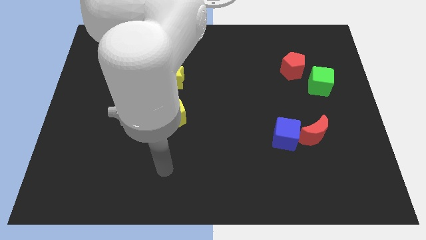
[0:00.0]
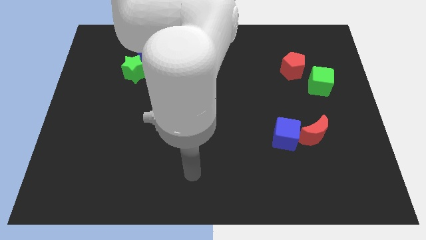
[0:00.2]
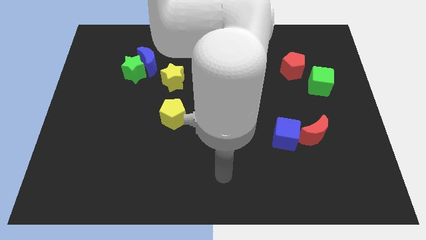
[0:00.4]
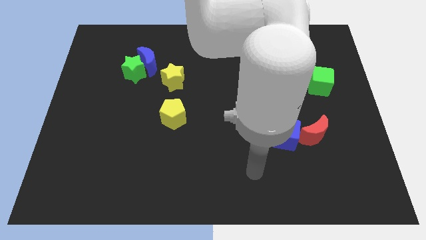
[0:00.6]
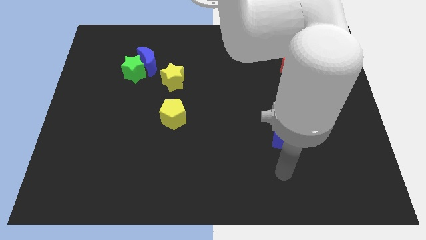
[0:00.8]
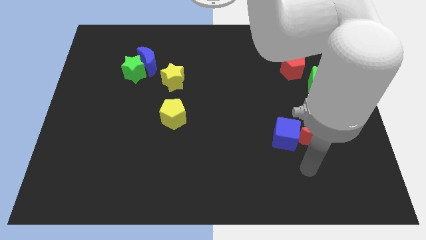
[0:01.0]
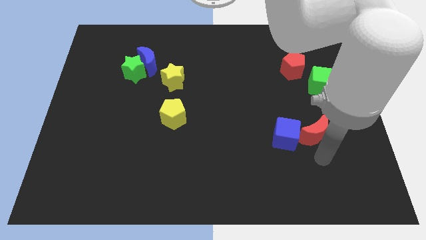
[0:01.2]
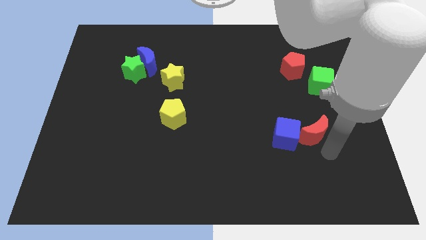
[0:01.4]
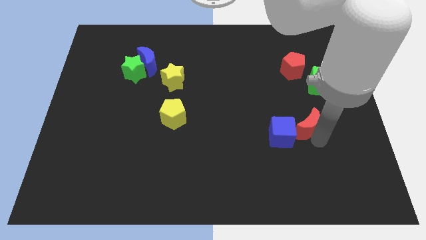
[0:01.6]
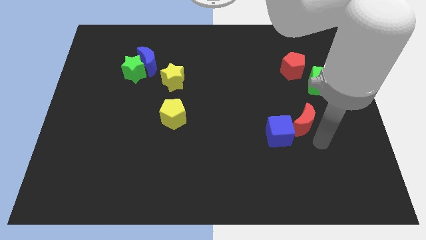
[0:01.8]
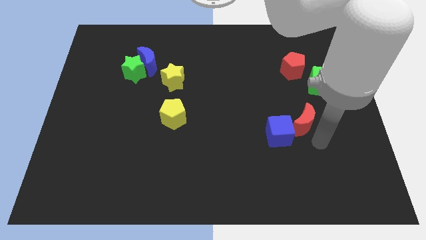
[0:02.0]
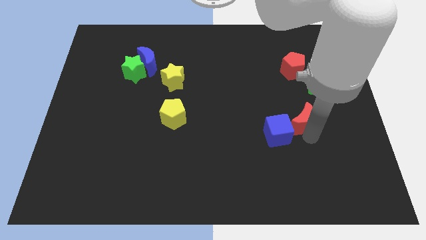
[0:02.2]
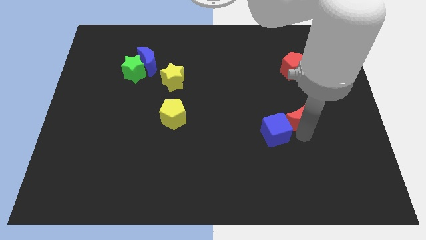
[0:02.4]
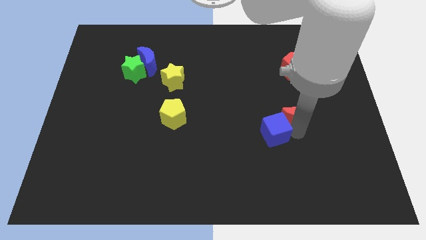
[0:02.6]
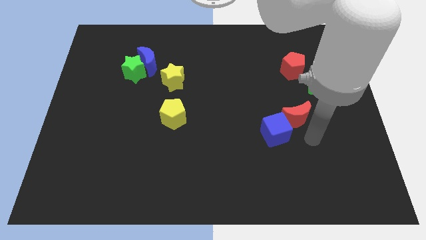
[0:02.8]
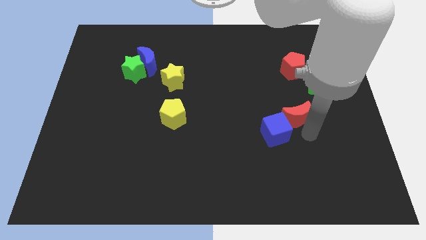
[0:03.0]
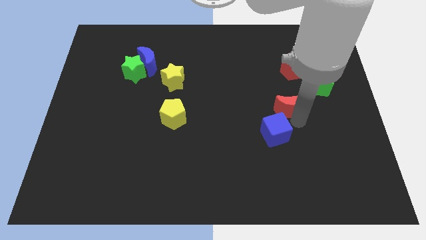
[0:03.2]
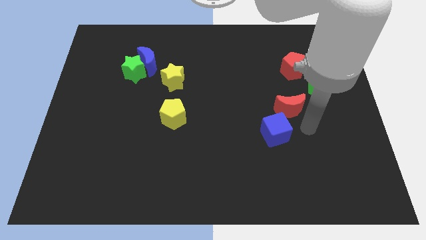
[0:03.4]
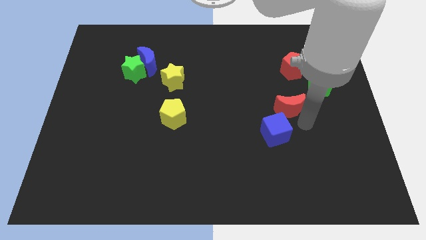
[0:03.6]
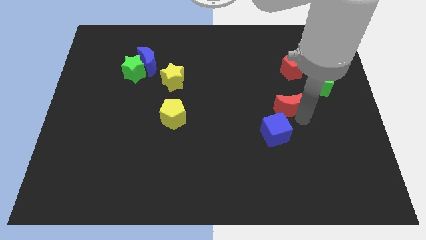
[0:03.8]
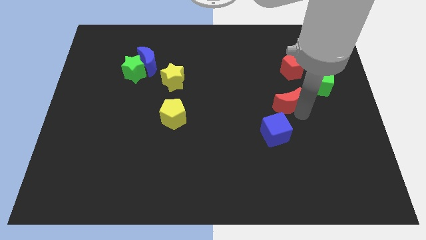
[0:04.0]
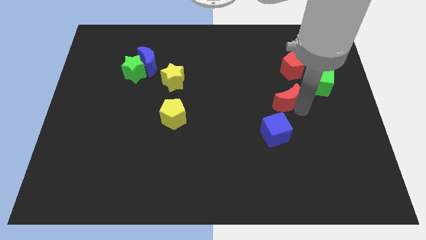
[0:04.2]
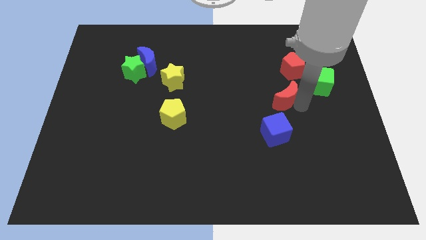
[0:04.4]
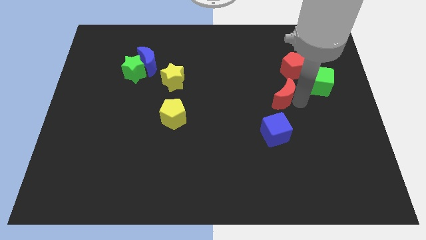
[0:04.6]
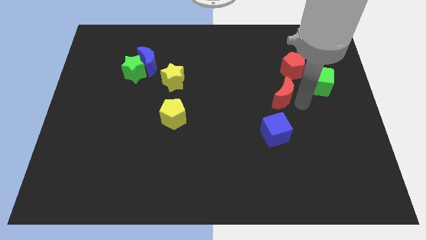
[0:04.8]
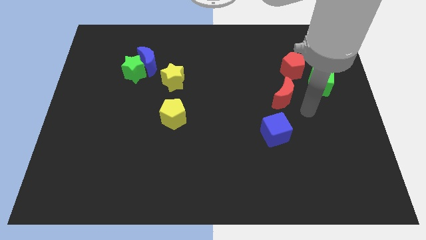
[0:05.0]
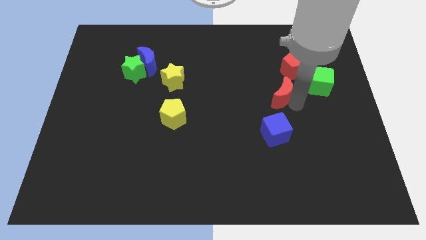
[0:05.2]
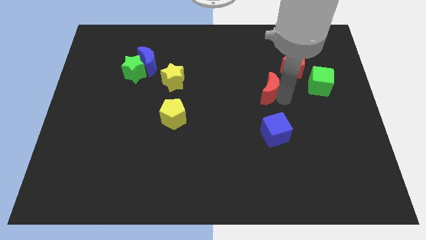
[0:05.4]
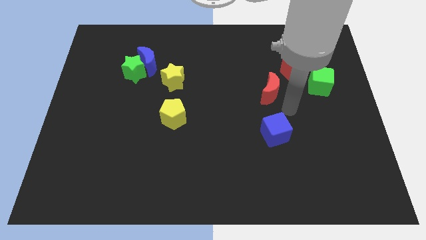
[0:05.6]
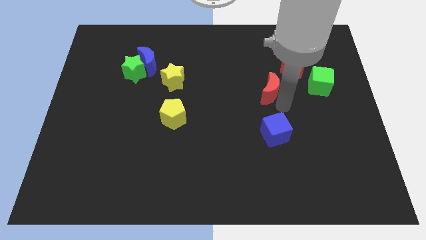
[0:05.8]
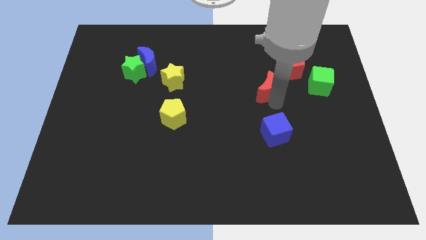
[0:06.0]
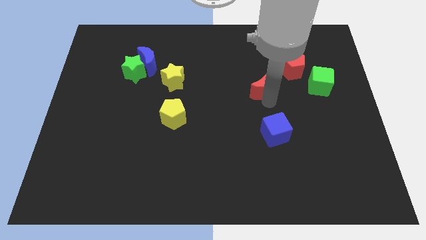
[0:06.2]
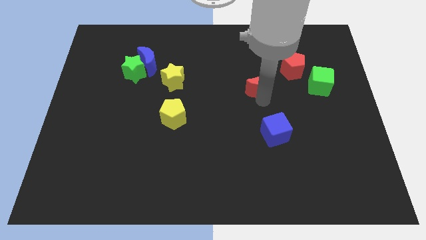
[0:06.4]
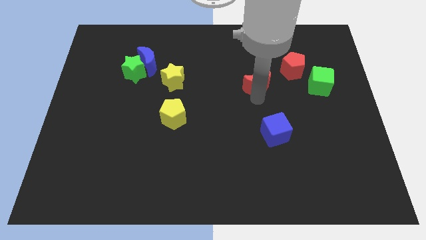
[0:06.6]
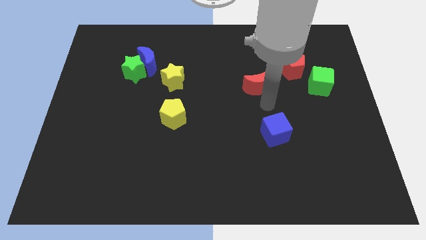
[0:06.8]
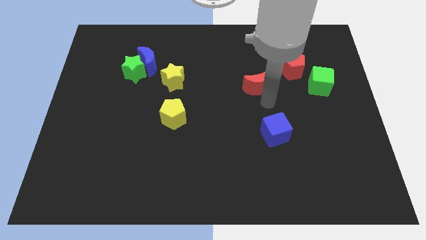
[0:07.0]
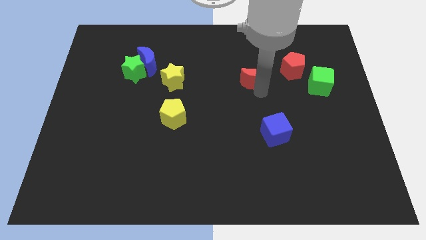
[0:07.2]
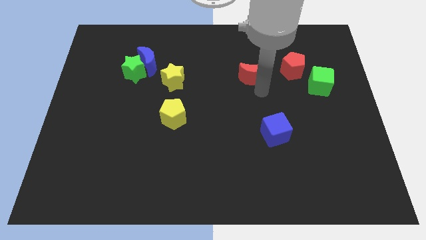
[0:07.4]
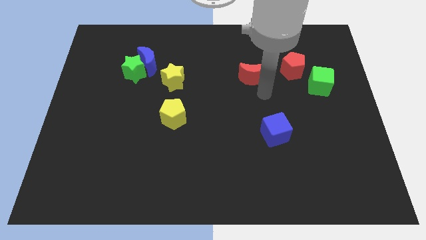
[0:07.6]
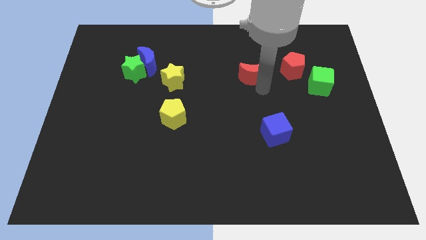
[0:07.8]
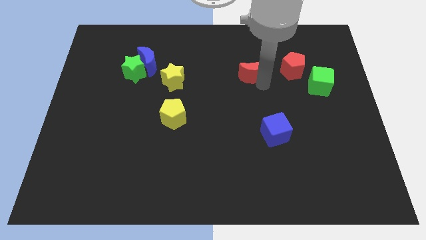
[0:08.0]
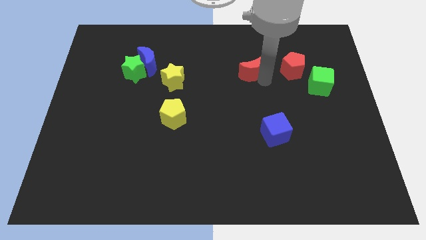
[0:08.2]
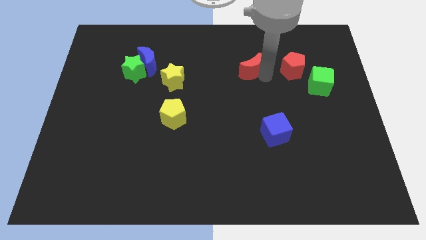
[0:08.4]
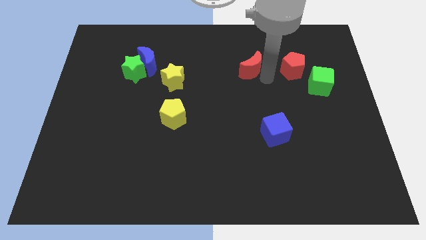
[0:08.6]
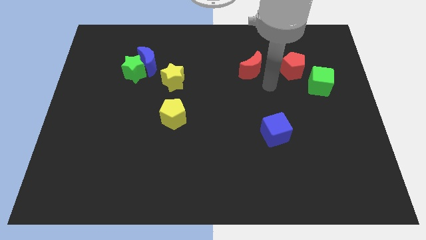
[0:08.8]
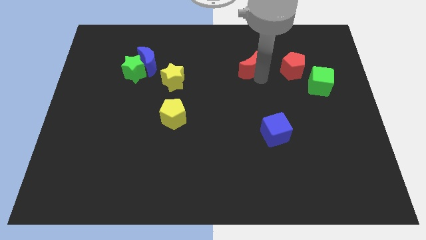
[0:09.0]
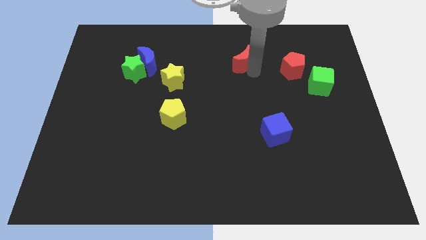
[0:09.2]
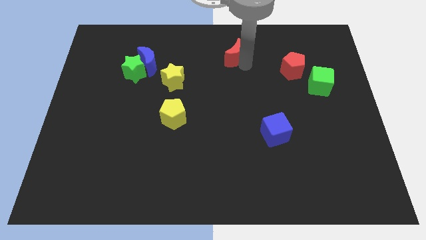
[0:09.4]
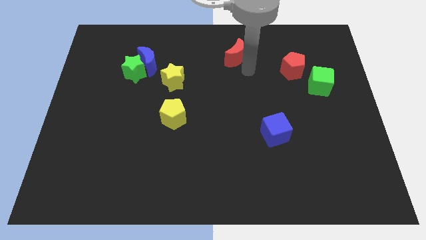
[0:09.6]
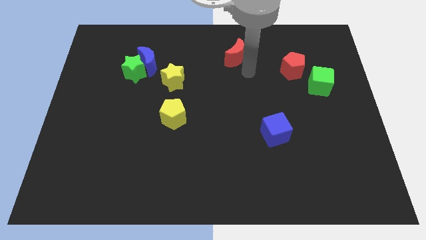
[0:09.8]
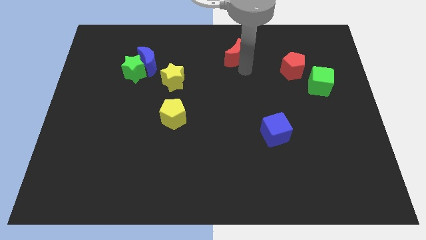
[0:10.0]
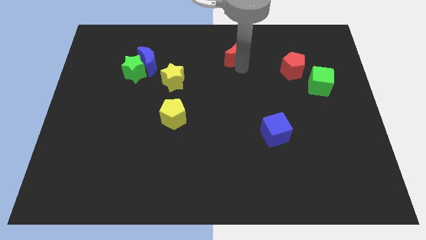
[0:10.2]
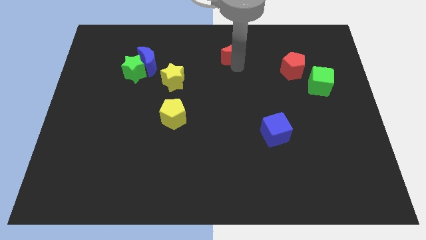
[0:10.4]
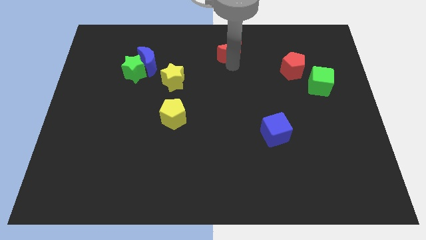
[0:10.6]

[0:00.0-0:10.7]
move the red moon to the top
